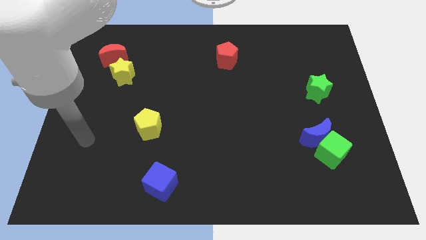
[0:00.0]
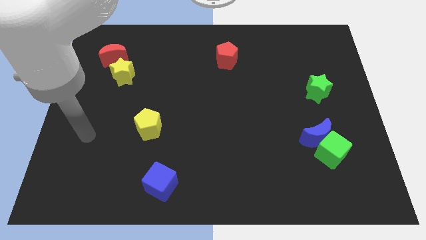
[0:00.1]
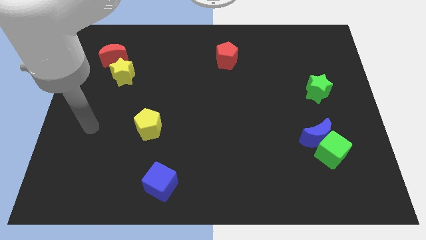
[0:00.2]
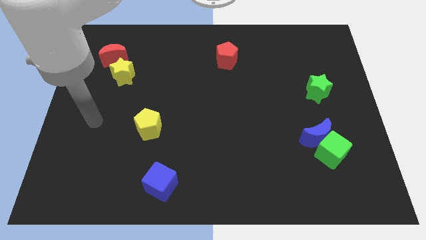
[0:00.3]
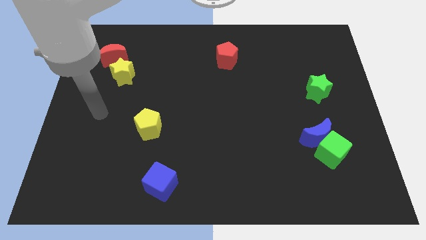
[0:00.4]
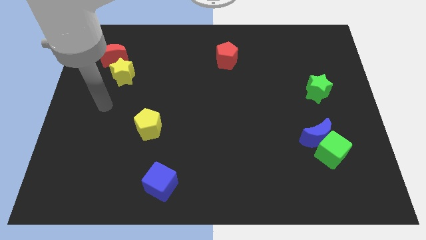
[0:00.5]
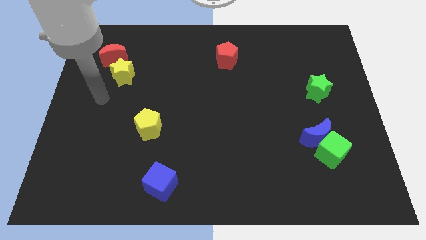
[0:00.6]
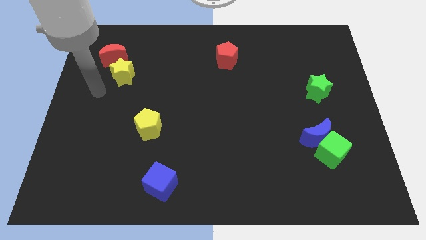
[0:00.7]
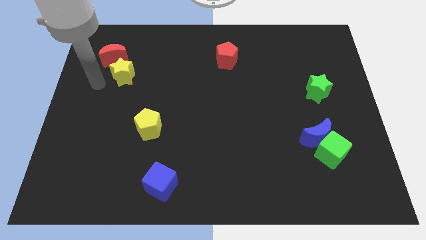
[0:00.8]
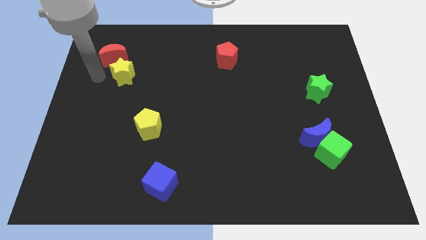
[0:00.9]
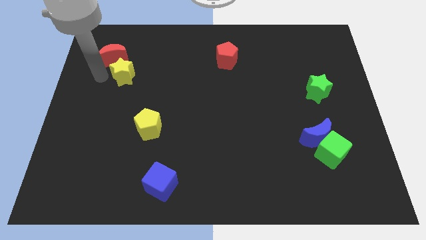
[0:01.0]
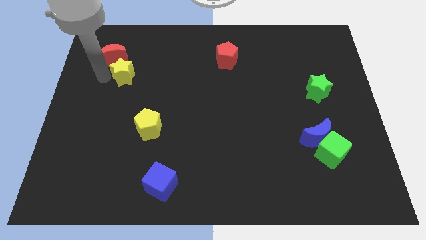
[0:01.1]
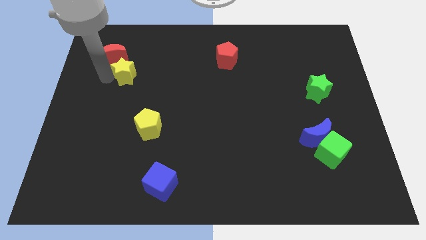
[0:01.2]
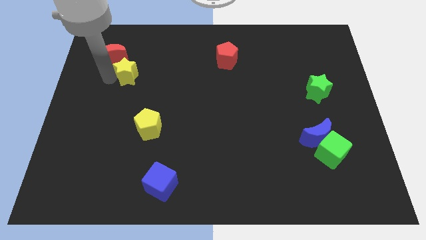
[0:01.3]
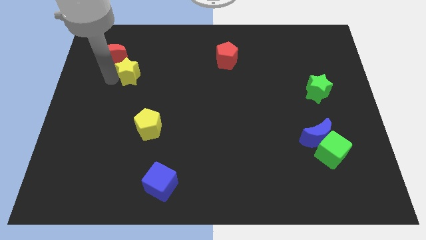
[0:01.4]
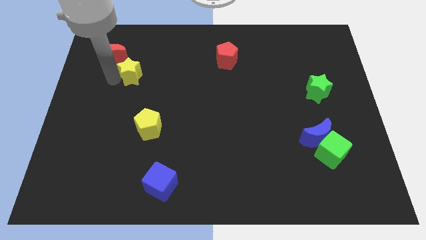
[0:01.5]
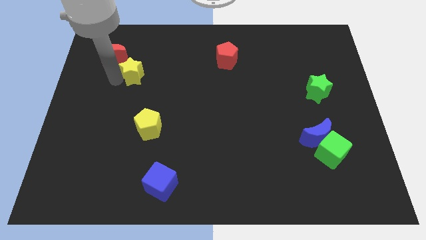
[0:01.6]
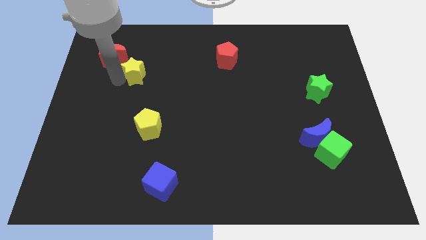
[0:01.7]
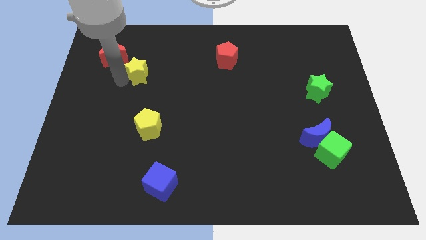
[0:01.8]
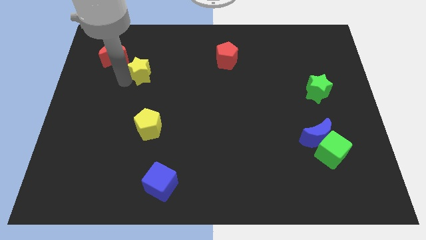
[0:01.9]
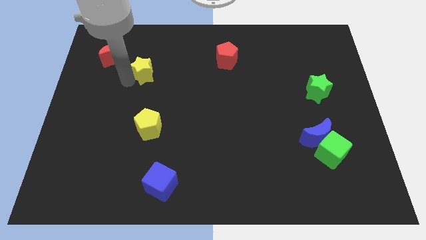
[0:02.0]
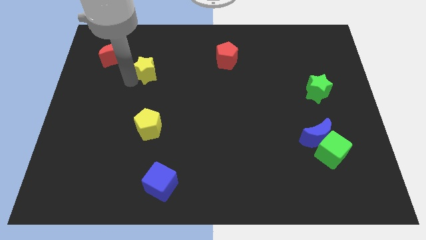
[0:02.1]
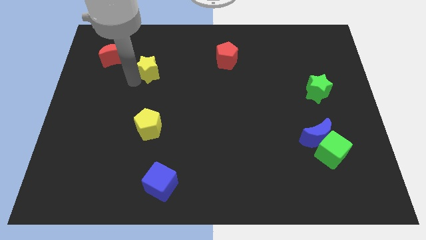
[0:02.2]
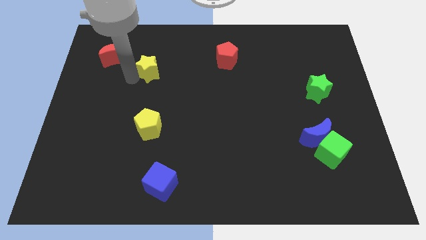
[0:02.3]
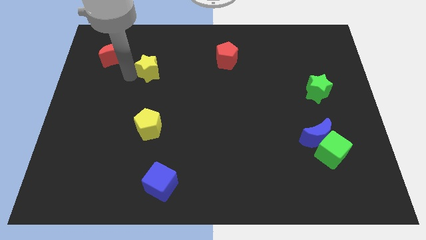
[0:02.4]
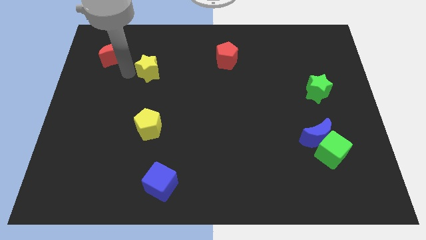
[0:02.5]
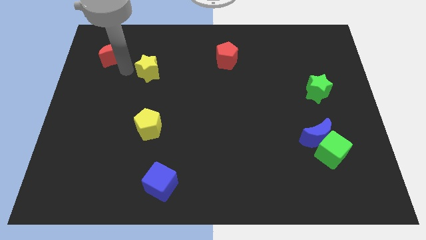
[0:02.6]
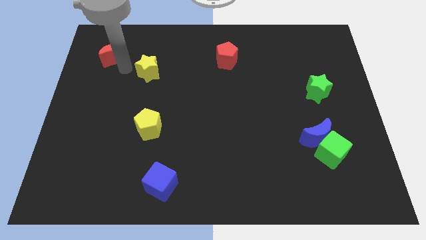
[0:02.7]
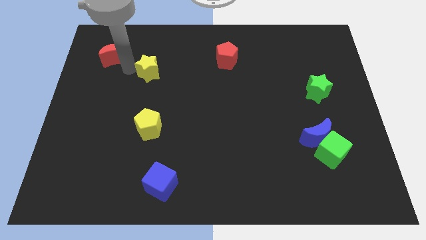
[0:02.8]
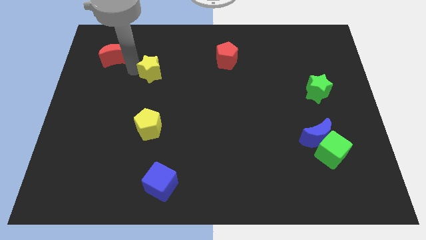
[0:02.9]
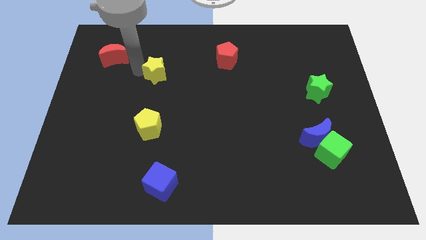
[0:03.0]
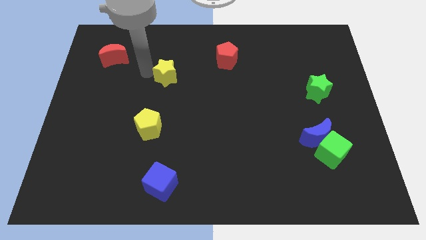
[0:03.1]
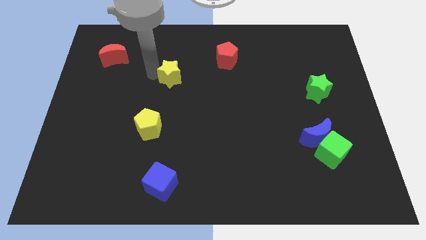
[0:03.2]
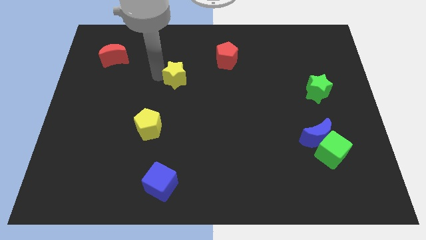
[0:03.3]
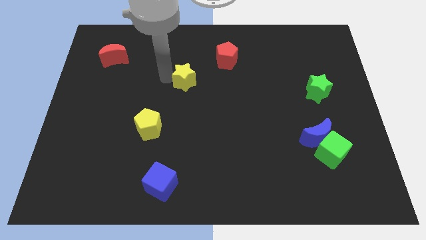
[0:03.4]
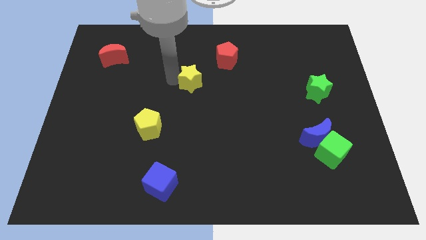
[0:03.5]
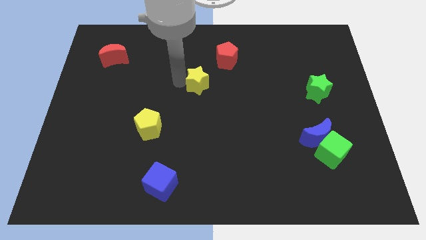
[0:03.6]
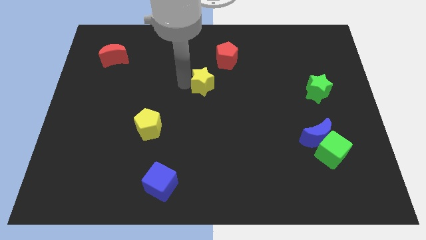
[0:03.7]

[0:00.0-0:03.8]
slide the yellow star to the right

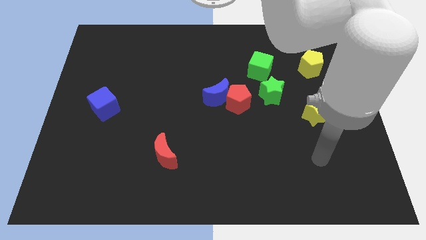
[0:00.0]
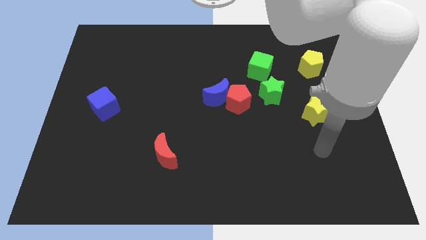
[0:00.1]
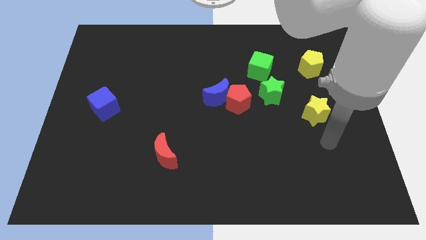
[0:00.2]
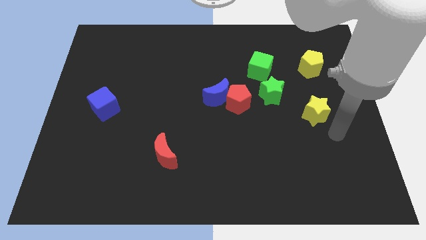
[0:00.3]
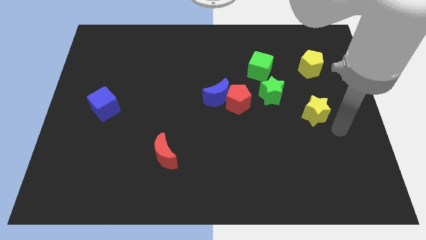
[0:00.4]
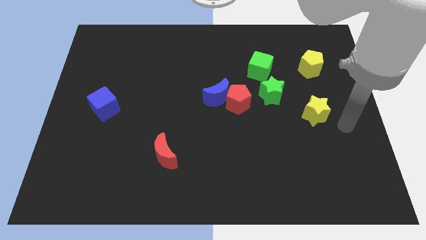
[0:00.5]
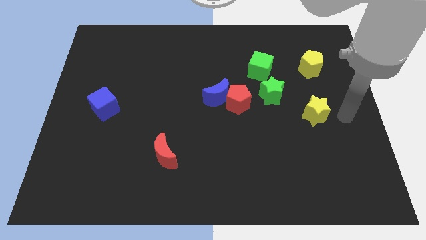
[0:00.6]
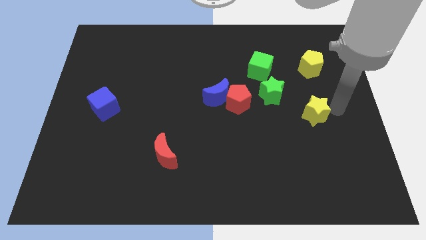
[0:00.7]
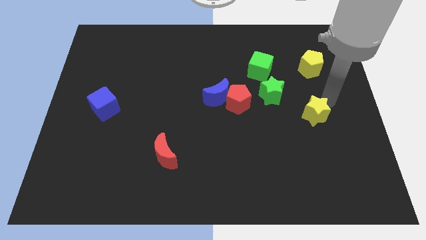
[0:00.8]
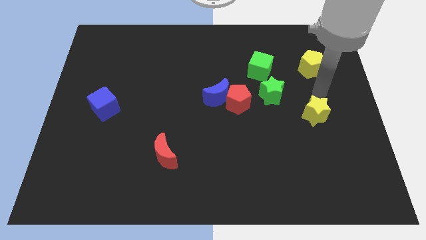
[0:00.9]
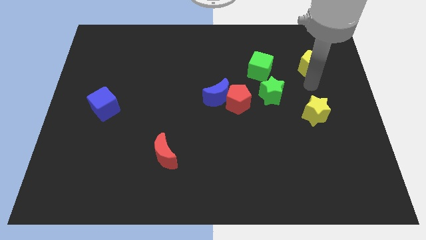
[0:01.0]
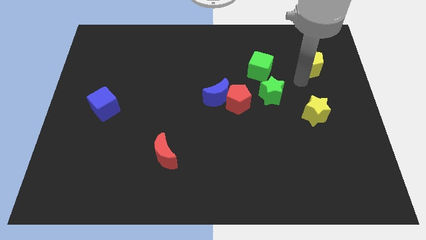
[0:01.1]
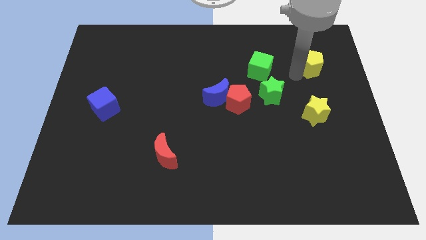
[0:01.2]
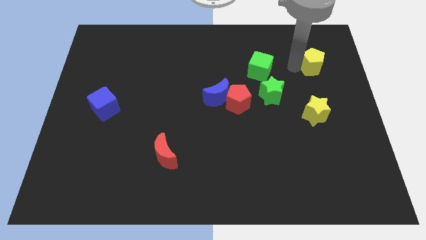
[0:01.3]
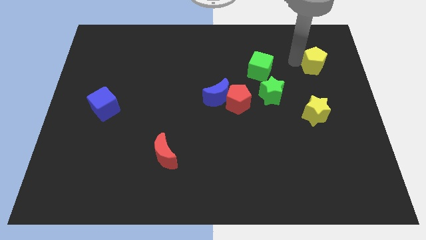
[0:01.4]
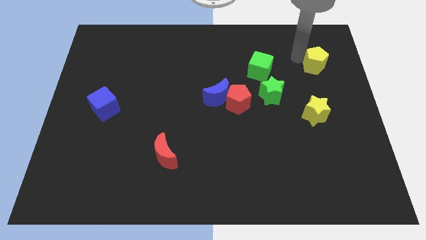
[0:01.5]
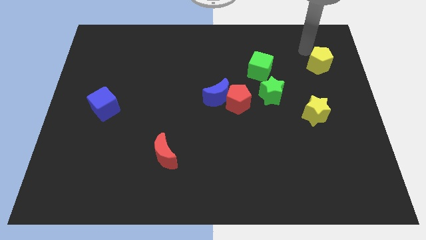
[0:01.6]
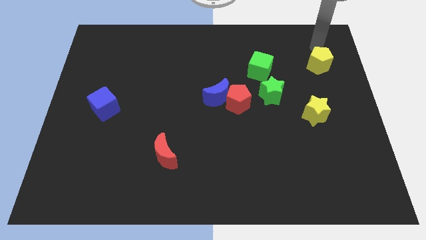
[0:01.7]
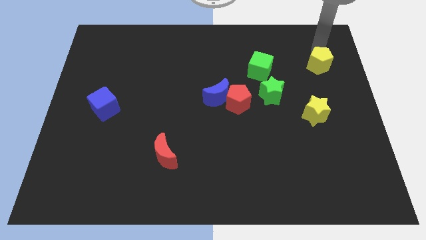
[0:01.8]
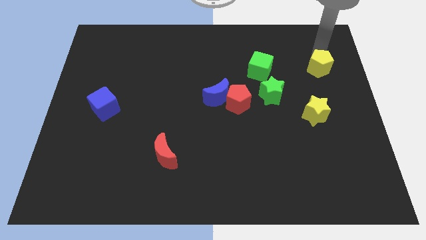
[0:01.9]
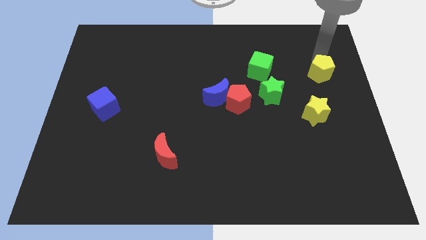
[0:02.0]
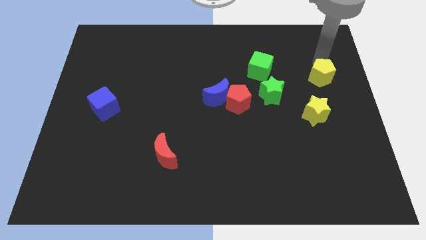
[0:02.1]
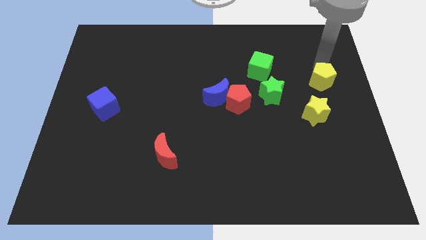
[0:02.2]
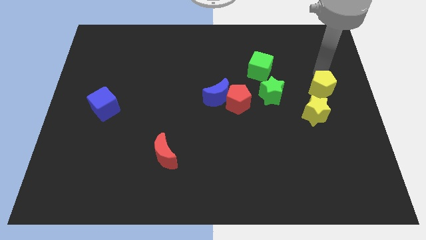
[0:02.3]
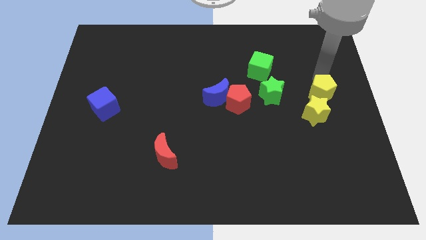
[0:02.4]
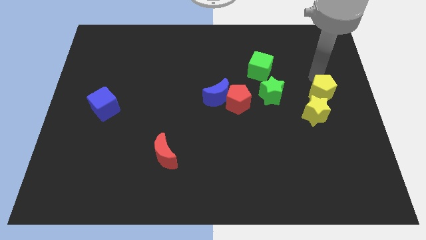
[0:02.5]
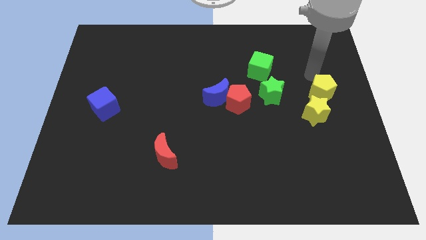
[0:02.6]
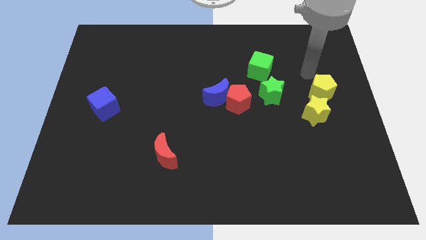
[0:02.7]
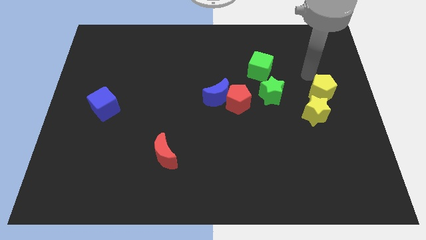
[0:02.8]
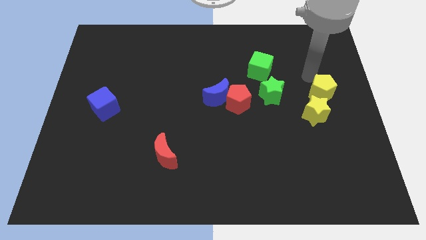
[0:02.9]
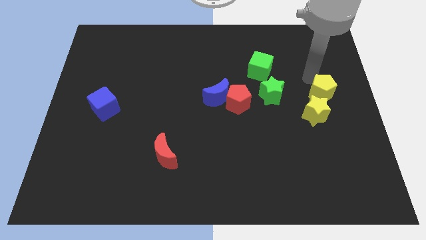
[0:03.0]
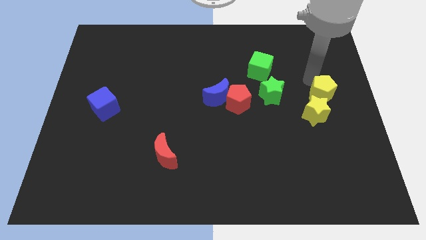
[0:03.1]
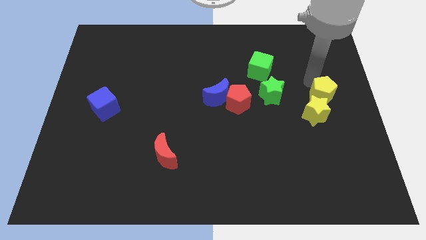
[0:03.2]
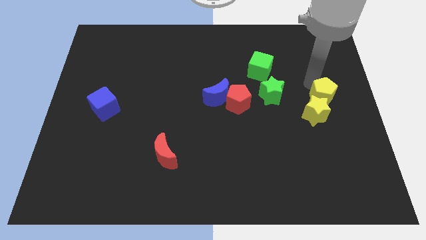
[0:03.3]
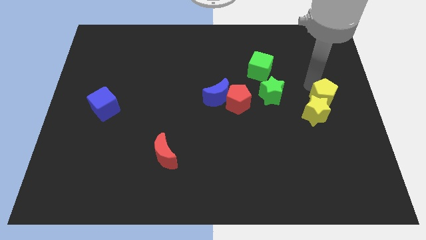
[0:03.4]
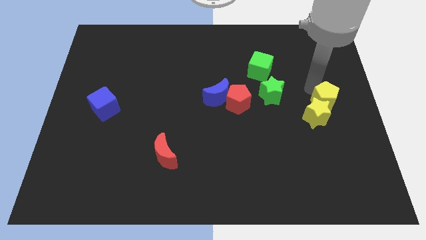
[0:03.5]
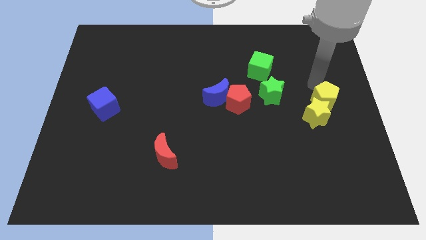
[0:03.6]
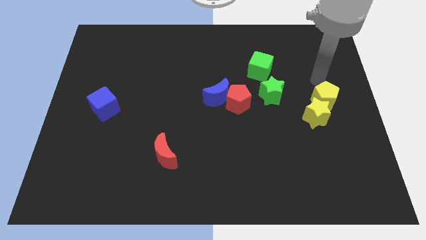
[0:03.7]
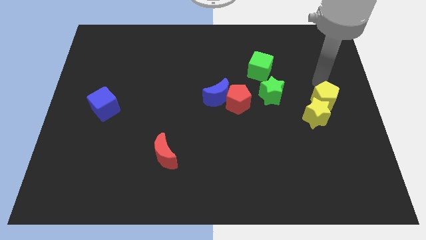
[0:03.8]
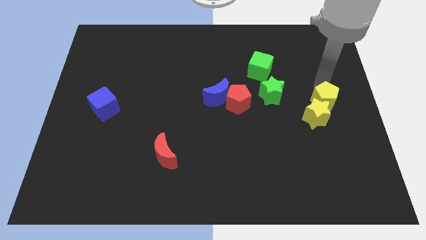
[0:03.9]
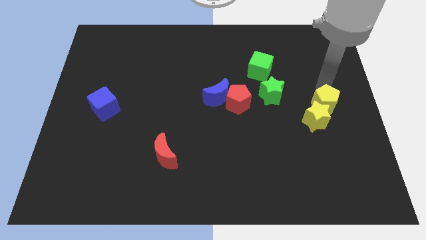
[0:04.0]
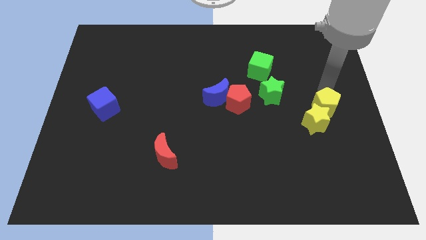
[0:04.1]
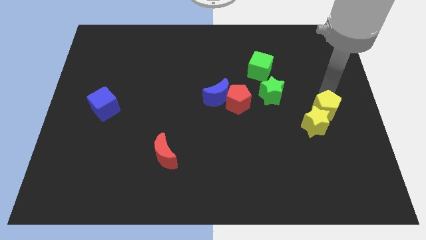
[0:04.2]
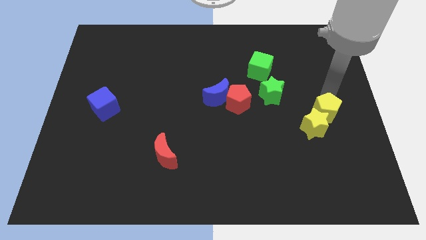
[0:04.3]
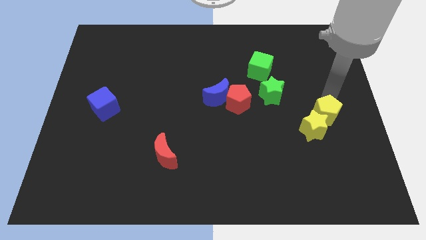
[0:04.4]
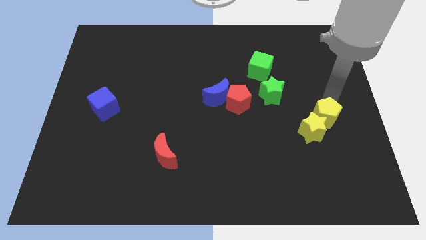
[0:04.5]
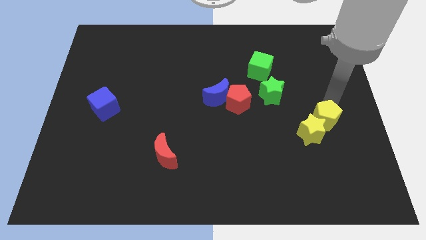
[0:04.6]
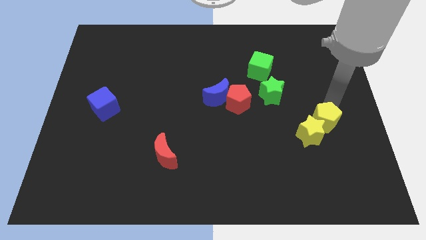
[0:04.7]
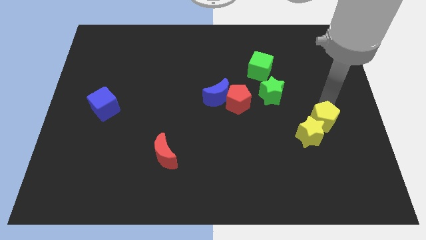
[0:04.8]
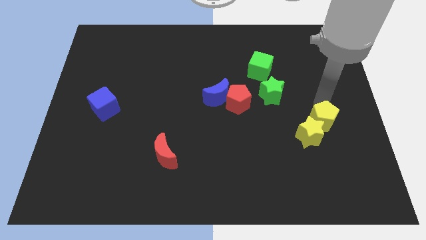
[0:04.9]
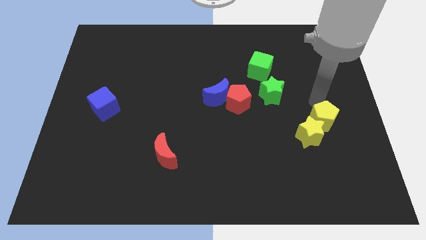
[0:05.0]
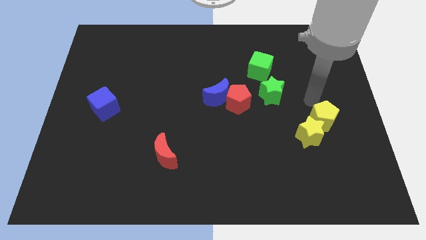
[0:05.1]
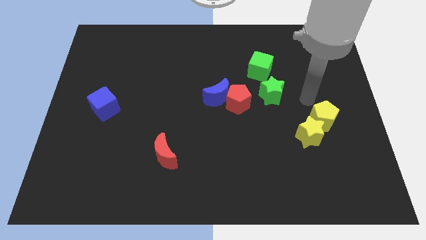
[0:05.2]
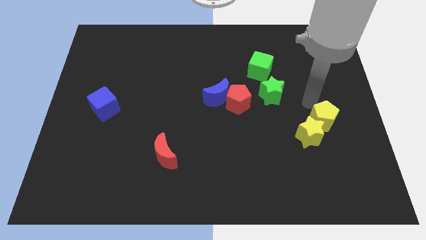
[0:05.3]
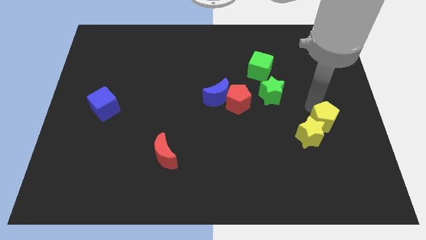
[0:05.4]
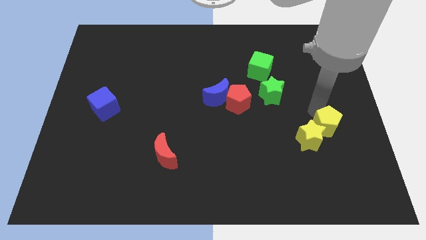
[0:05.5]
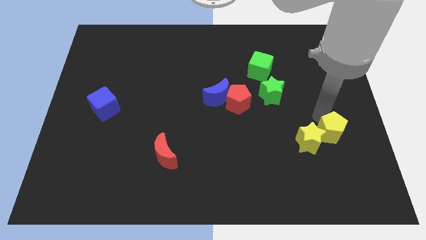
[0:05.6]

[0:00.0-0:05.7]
slide the yellow pentagon downwards
